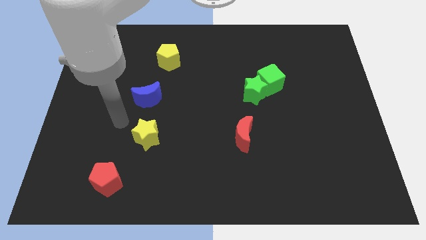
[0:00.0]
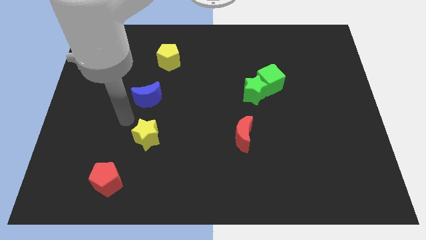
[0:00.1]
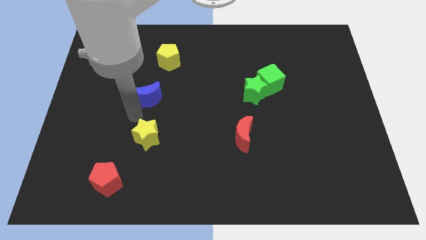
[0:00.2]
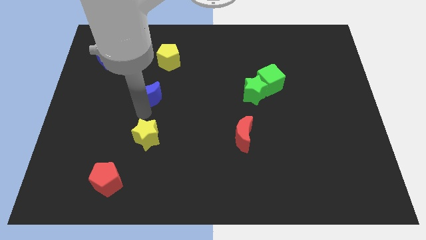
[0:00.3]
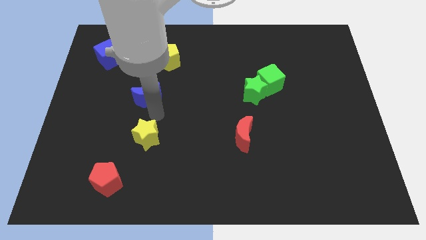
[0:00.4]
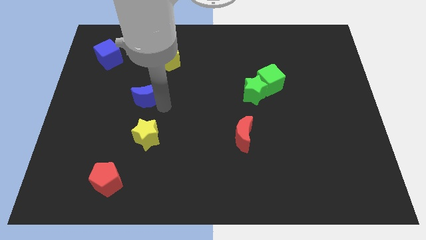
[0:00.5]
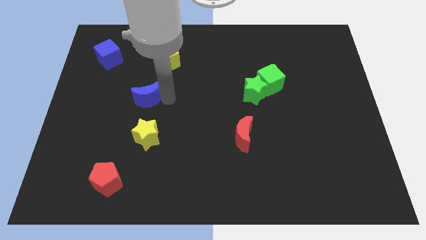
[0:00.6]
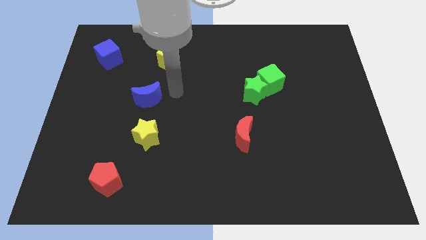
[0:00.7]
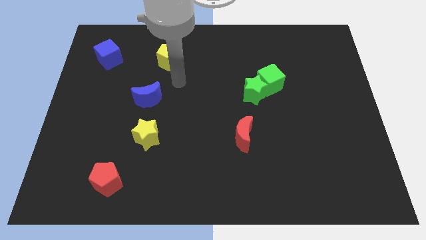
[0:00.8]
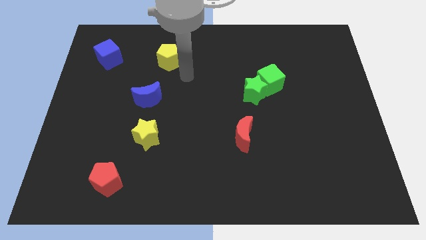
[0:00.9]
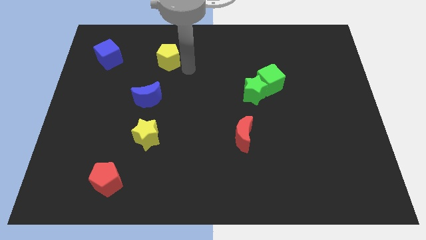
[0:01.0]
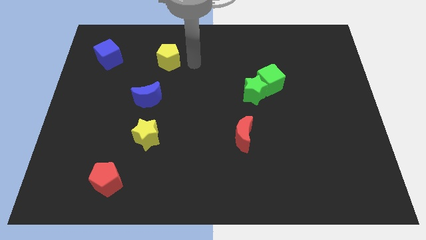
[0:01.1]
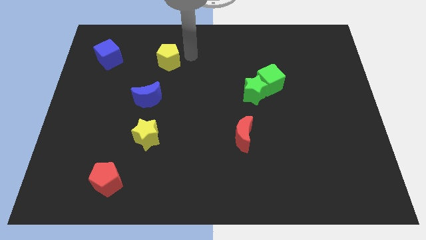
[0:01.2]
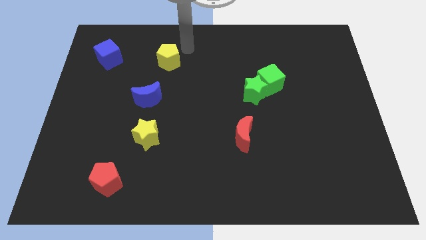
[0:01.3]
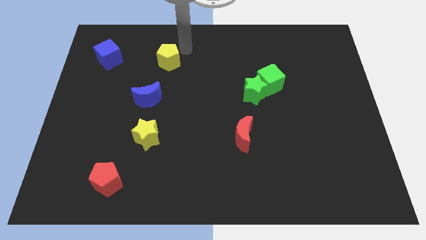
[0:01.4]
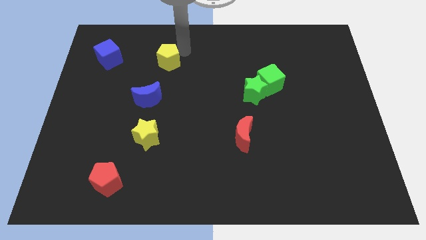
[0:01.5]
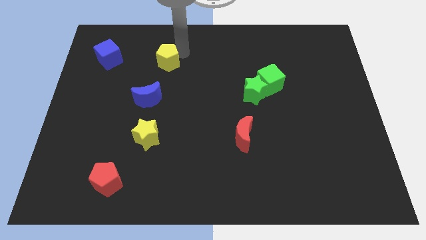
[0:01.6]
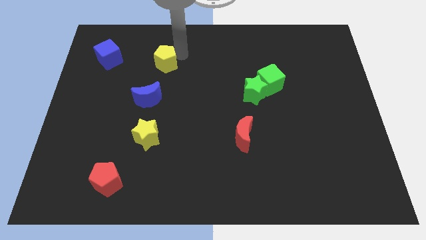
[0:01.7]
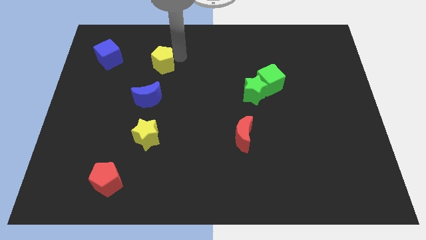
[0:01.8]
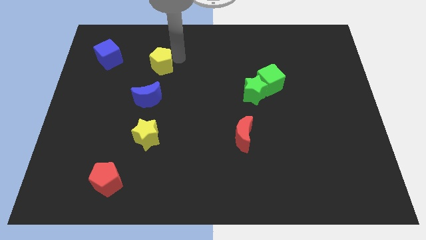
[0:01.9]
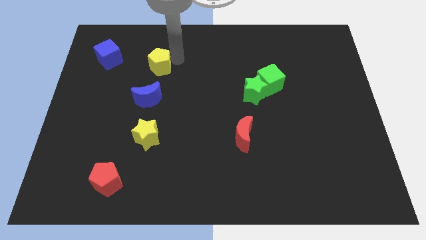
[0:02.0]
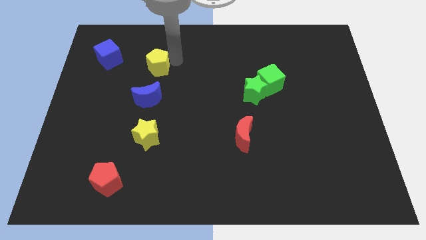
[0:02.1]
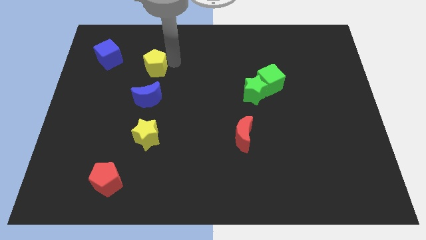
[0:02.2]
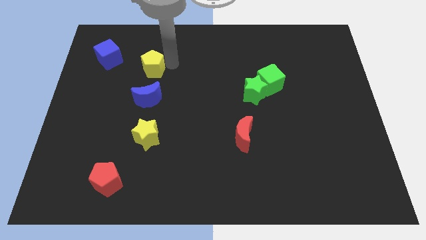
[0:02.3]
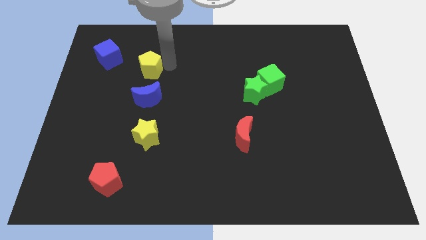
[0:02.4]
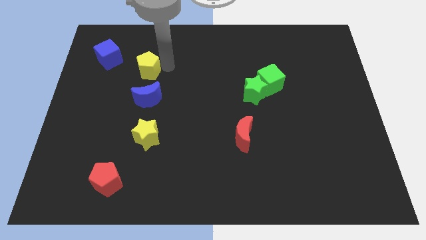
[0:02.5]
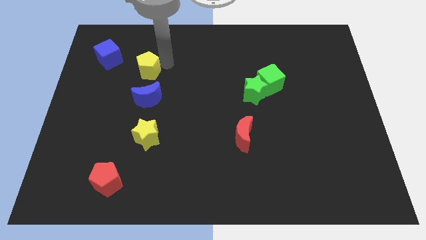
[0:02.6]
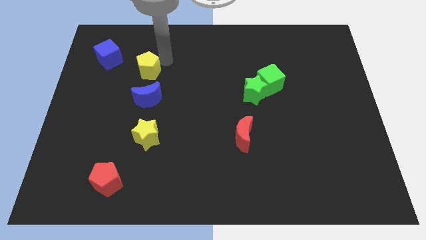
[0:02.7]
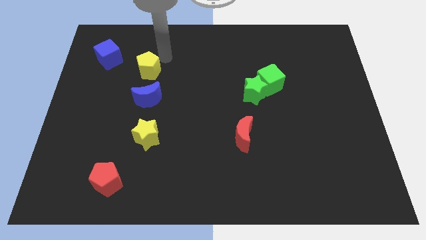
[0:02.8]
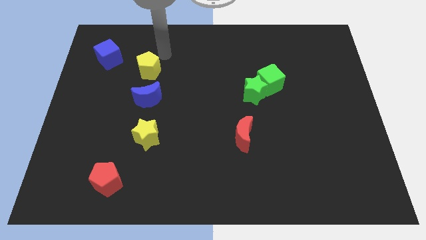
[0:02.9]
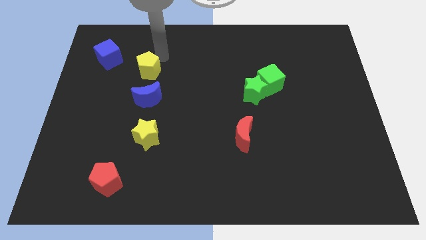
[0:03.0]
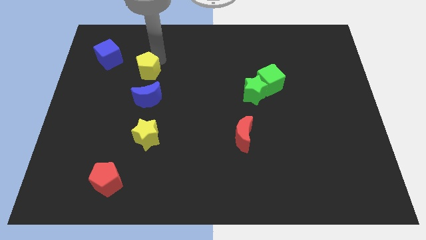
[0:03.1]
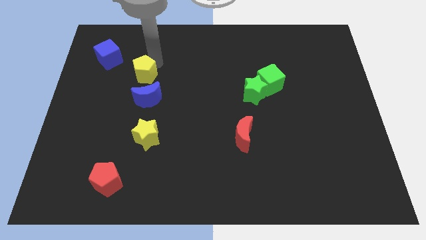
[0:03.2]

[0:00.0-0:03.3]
move the yellow pentagon a bit down and then left

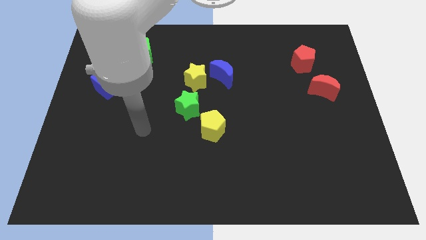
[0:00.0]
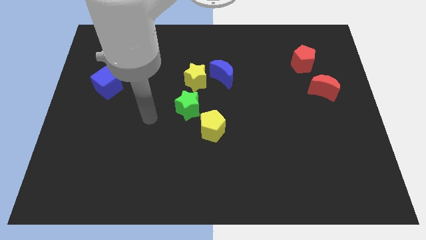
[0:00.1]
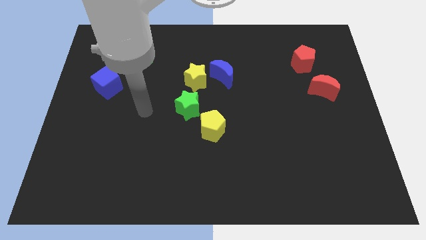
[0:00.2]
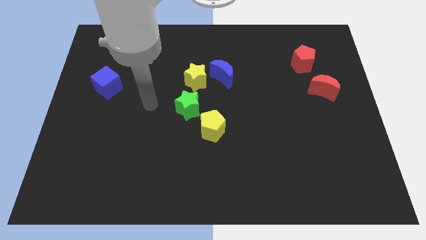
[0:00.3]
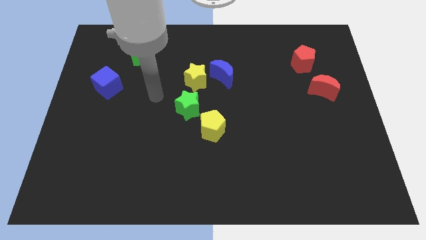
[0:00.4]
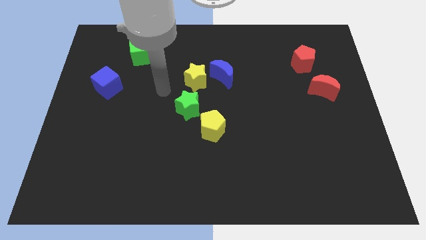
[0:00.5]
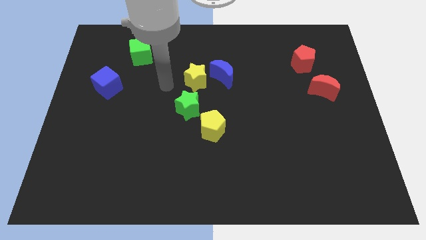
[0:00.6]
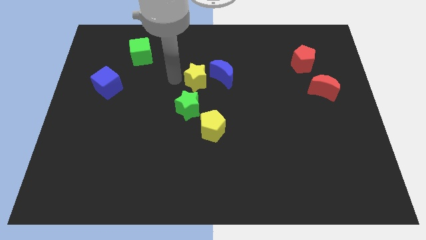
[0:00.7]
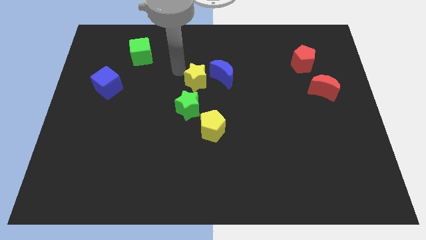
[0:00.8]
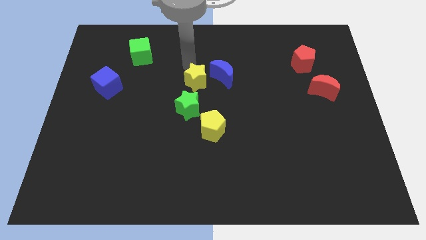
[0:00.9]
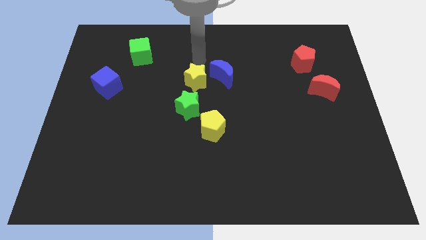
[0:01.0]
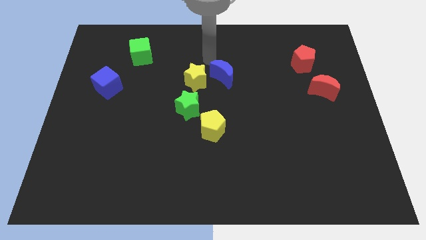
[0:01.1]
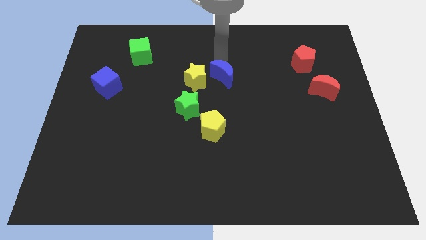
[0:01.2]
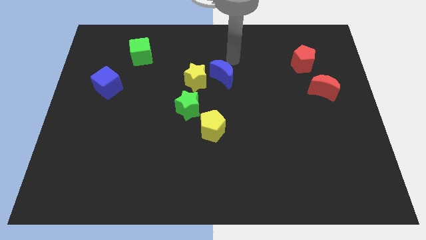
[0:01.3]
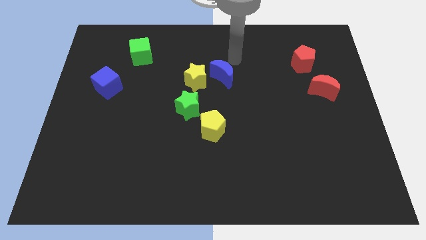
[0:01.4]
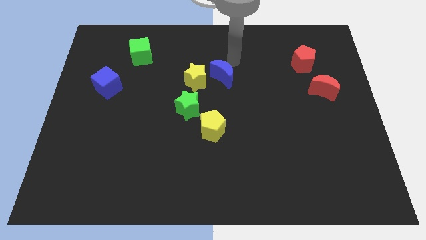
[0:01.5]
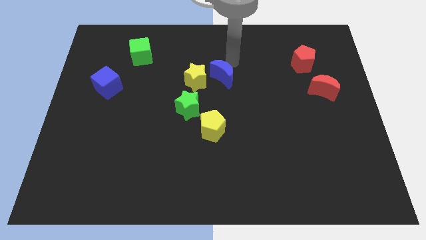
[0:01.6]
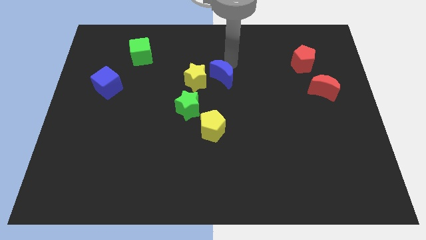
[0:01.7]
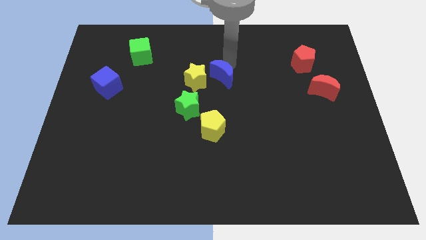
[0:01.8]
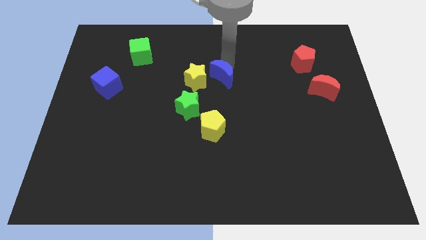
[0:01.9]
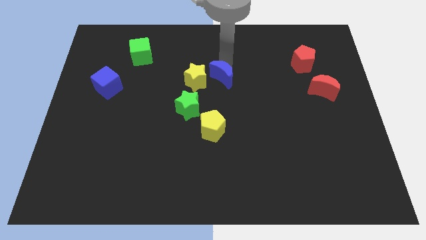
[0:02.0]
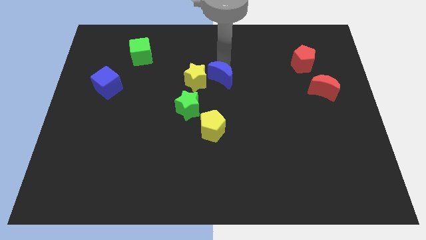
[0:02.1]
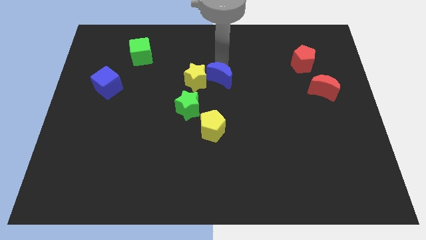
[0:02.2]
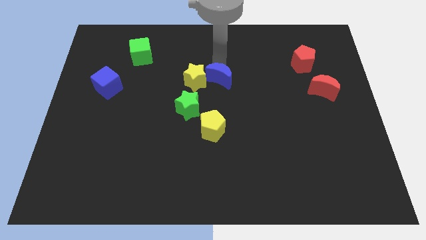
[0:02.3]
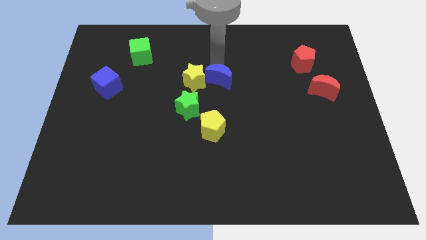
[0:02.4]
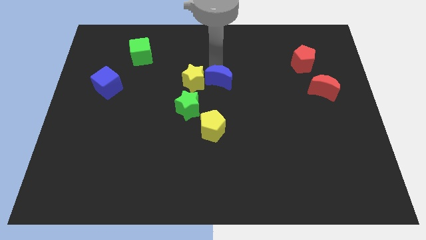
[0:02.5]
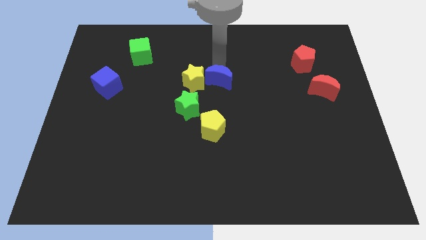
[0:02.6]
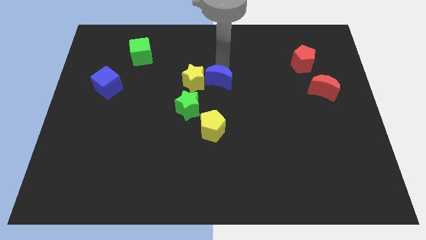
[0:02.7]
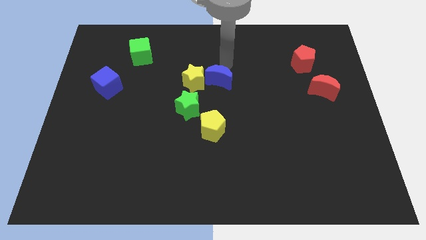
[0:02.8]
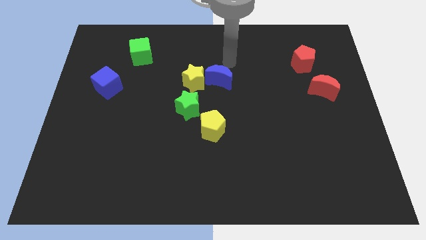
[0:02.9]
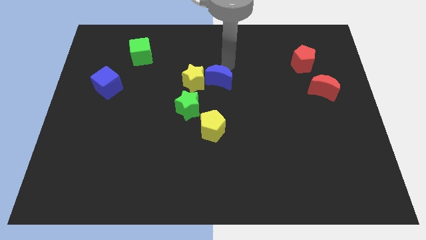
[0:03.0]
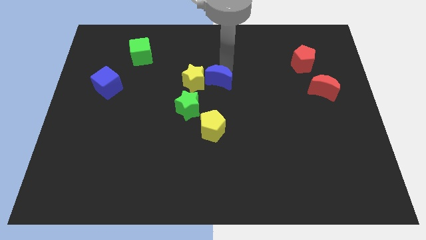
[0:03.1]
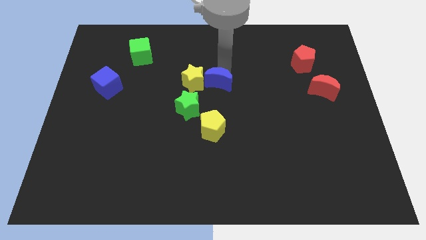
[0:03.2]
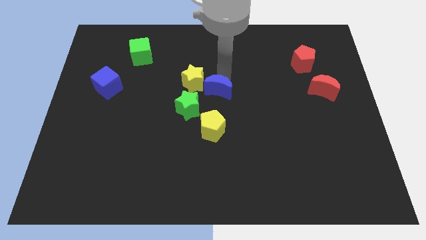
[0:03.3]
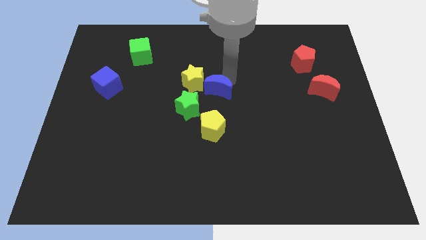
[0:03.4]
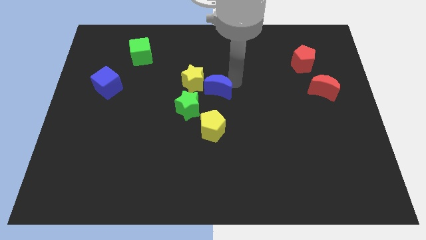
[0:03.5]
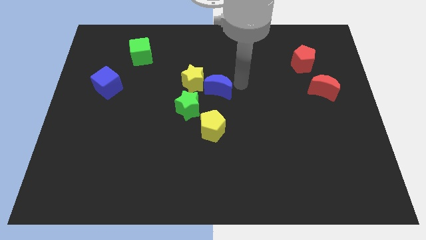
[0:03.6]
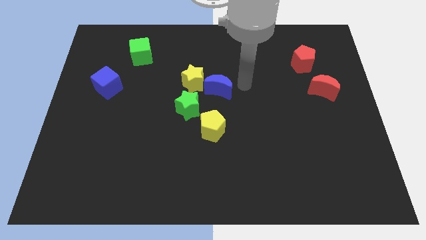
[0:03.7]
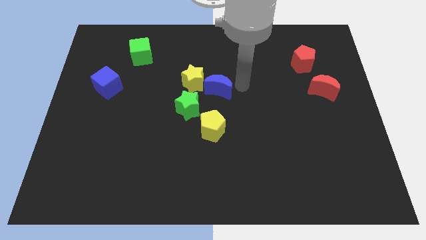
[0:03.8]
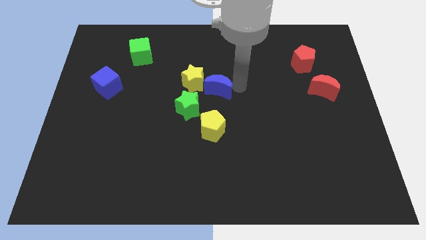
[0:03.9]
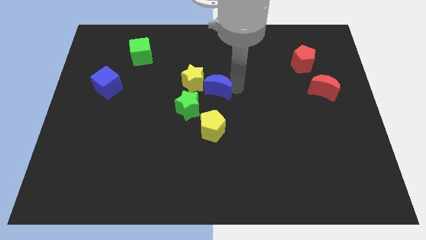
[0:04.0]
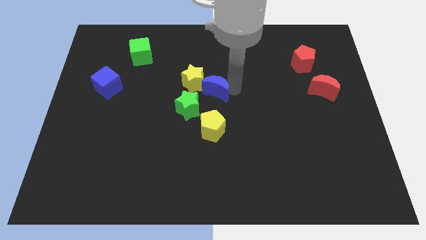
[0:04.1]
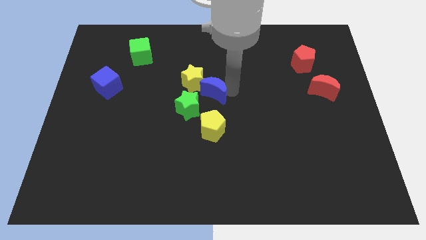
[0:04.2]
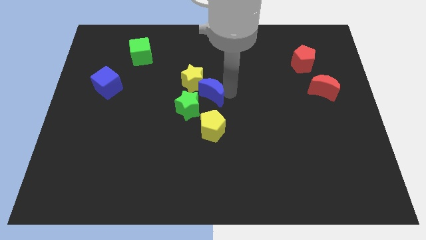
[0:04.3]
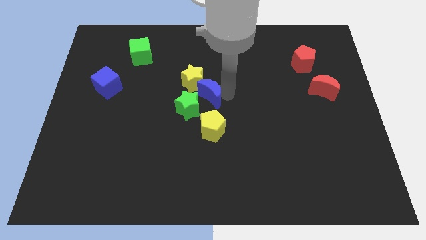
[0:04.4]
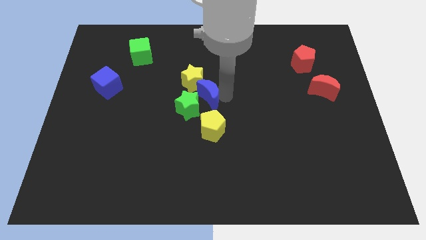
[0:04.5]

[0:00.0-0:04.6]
slightly slide the blue moon downwards and then to the left

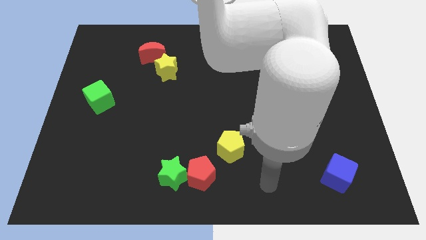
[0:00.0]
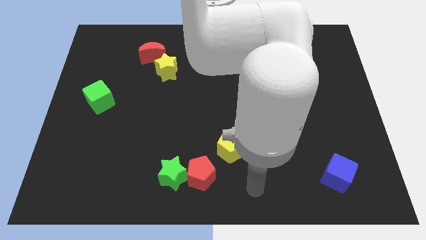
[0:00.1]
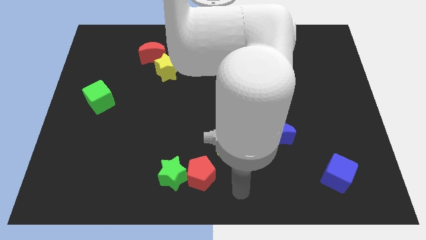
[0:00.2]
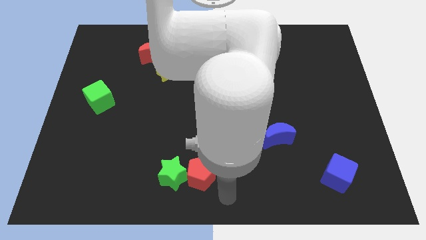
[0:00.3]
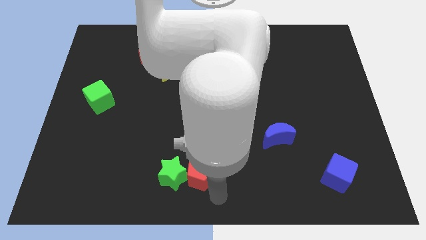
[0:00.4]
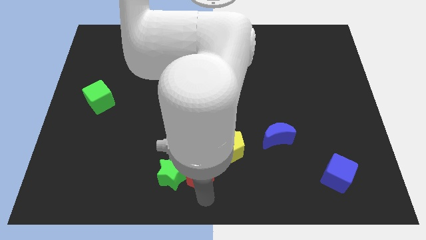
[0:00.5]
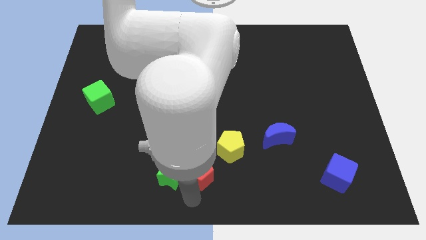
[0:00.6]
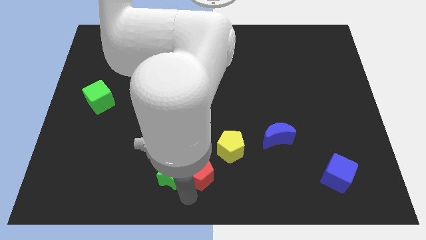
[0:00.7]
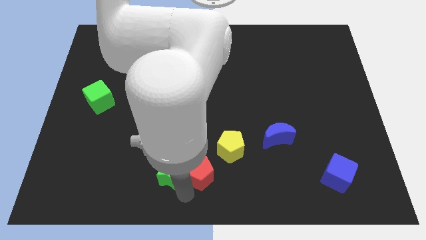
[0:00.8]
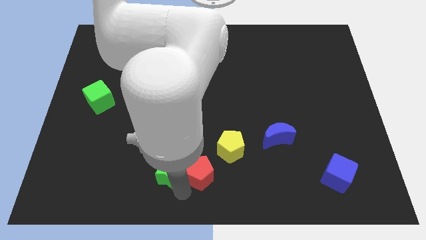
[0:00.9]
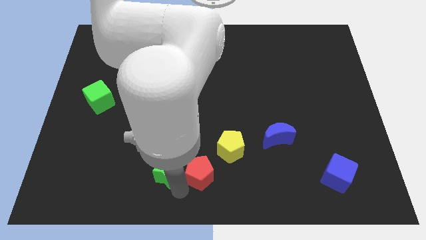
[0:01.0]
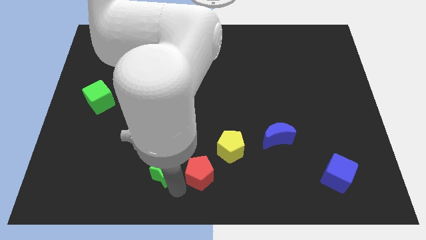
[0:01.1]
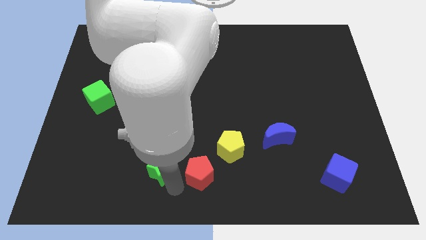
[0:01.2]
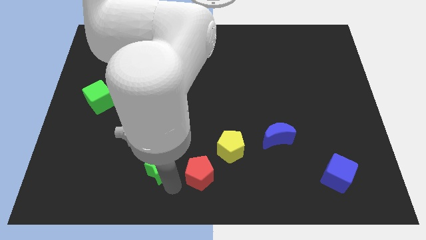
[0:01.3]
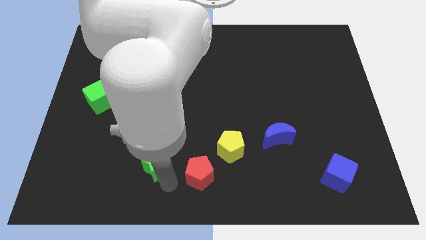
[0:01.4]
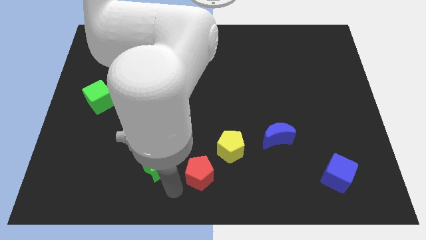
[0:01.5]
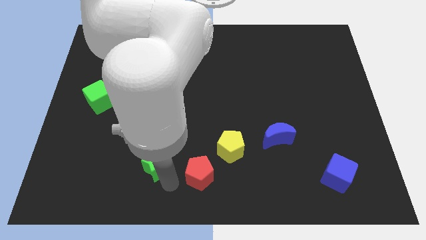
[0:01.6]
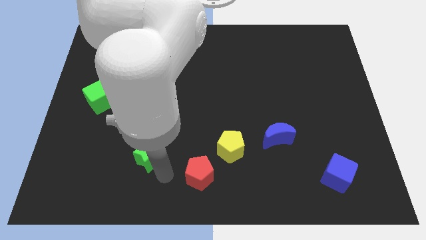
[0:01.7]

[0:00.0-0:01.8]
push the green star a little bit up and left diagonally
